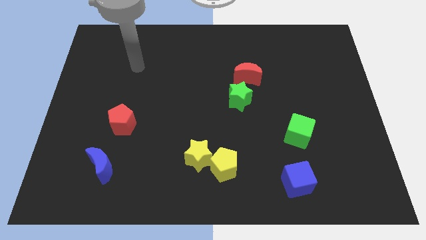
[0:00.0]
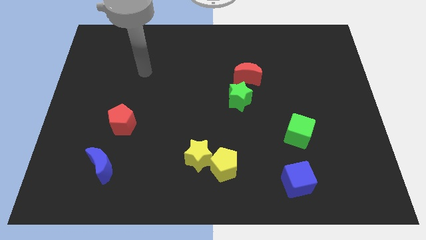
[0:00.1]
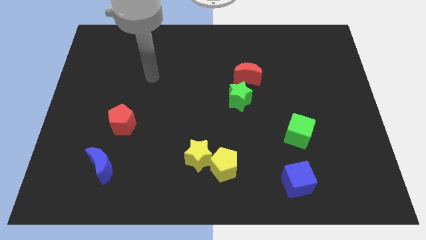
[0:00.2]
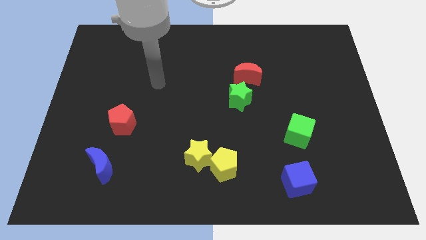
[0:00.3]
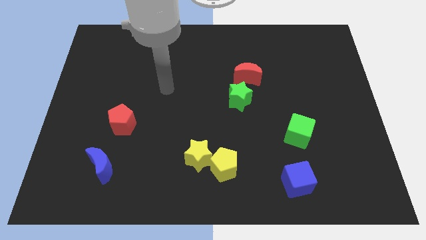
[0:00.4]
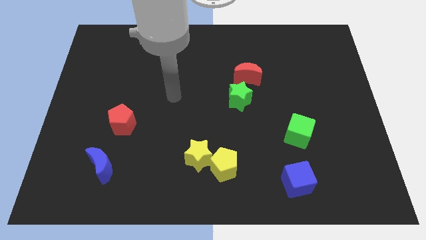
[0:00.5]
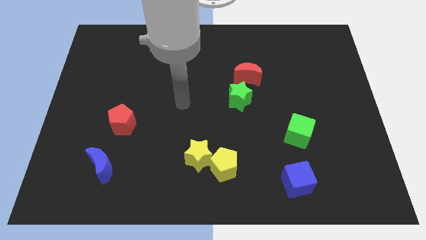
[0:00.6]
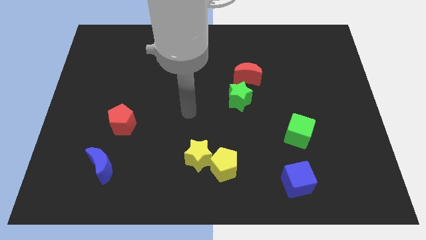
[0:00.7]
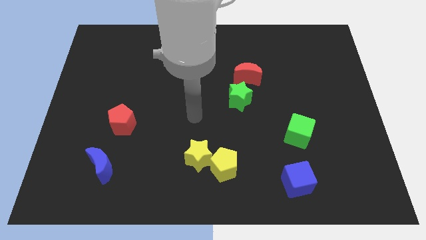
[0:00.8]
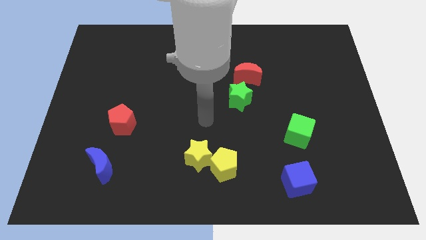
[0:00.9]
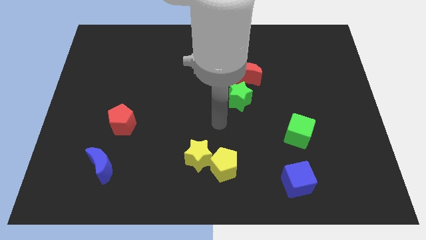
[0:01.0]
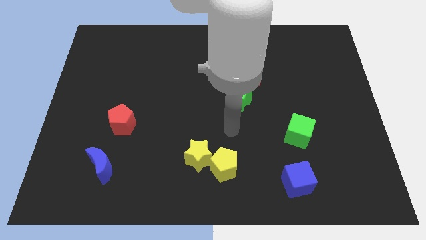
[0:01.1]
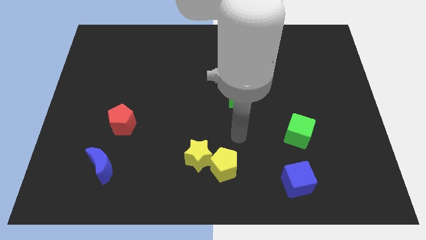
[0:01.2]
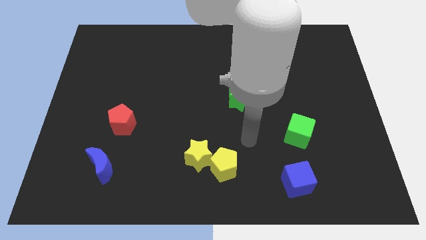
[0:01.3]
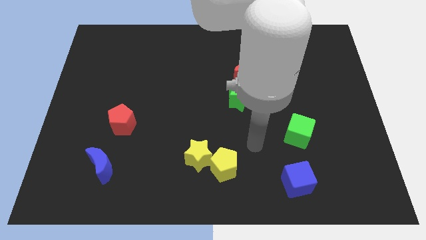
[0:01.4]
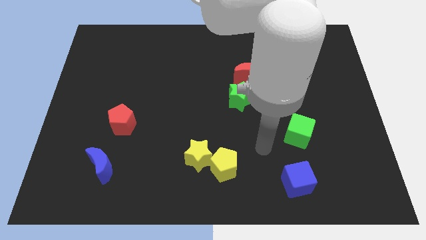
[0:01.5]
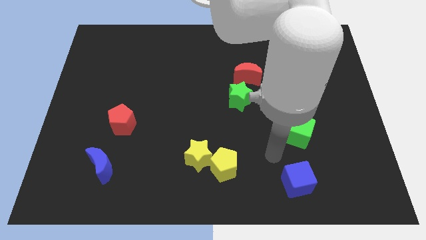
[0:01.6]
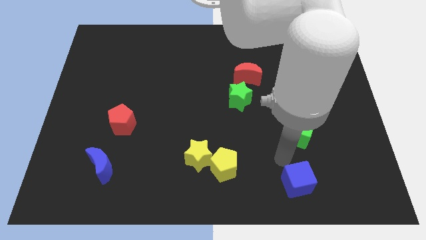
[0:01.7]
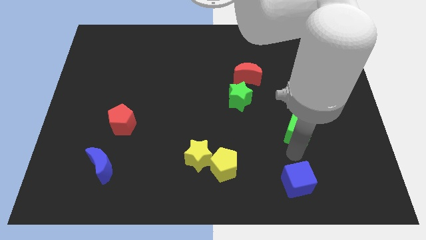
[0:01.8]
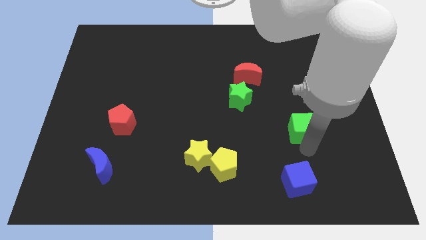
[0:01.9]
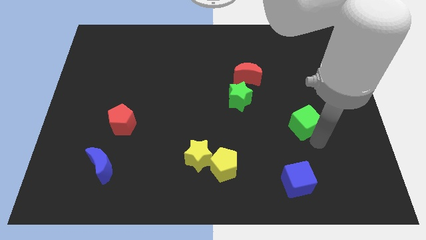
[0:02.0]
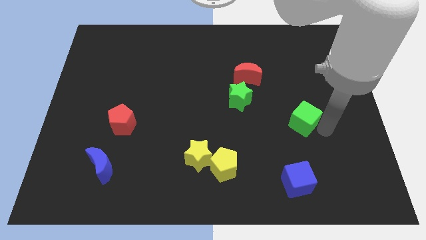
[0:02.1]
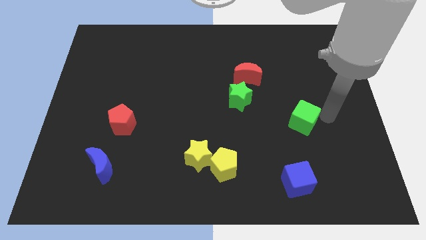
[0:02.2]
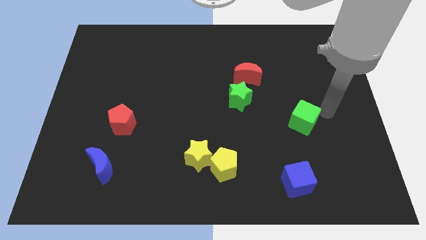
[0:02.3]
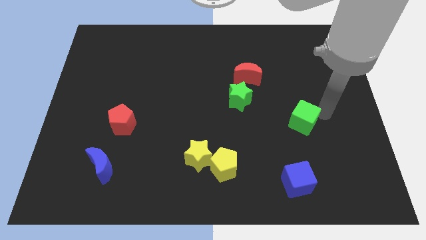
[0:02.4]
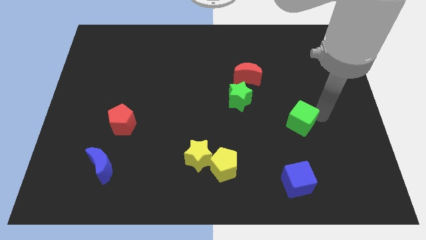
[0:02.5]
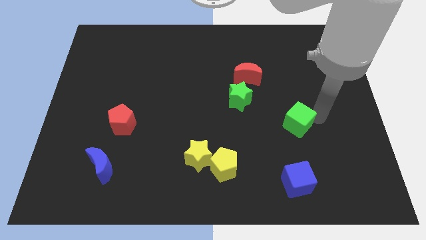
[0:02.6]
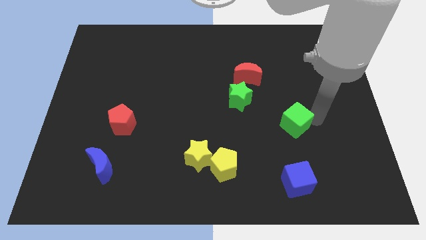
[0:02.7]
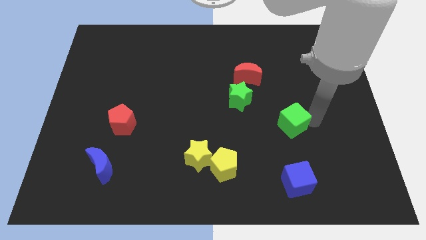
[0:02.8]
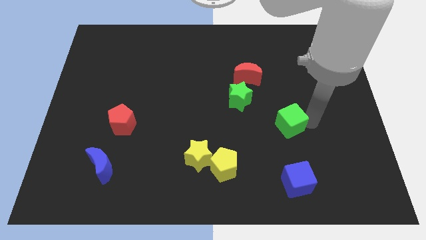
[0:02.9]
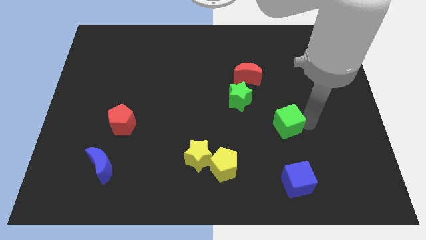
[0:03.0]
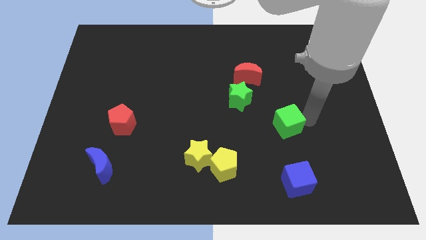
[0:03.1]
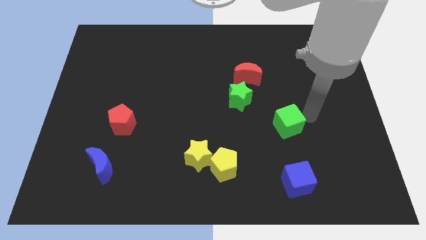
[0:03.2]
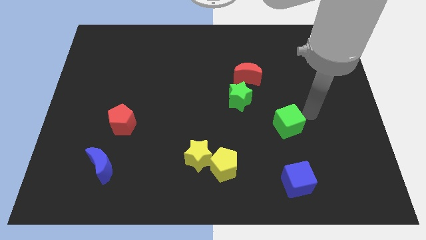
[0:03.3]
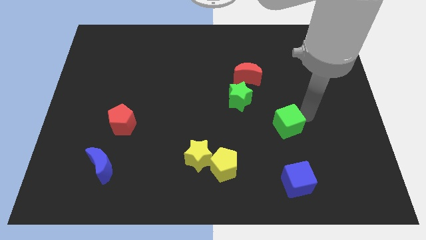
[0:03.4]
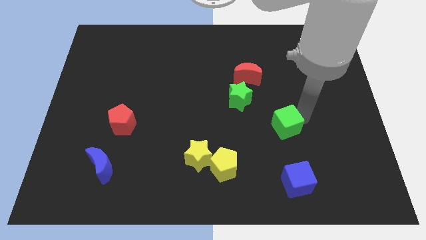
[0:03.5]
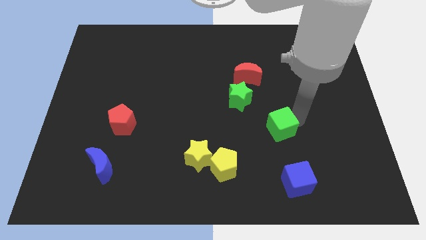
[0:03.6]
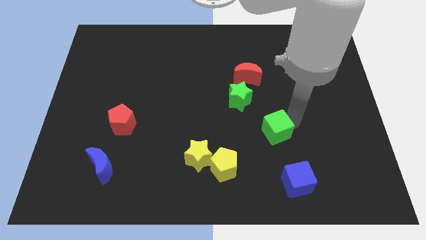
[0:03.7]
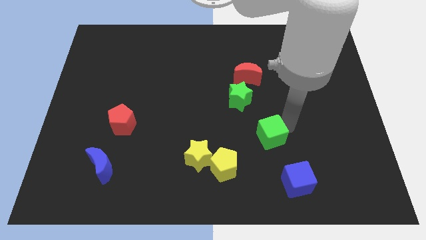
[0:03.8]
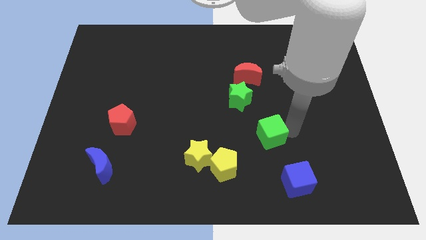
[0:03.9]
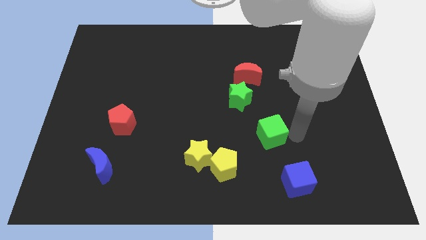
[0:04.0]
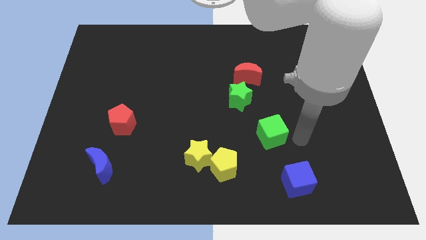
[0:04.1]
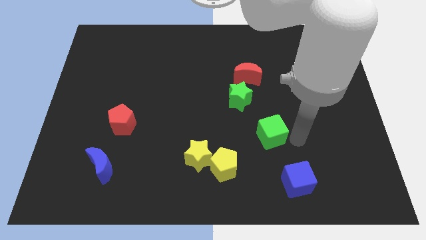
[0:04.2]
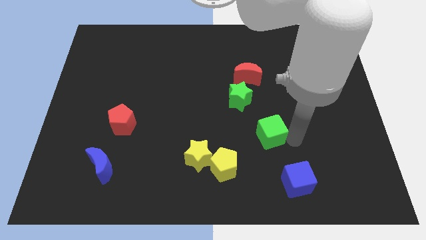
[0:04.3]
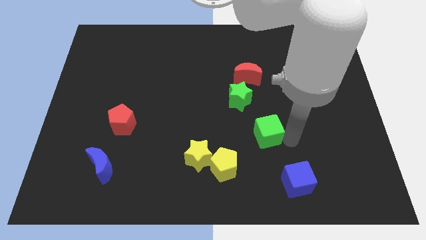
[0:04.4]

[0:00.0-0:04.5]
push the green cube left slightly

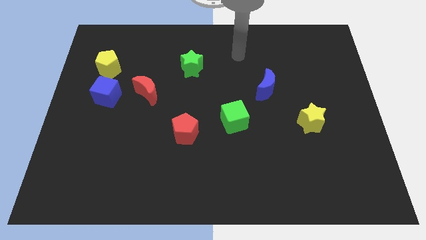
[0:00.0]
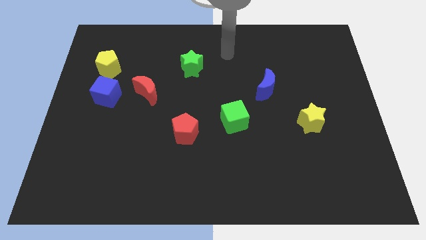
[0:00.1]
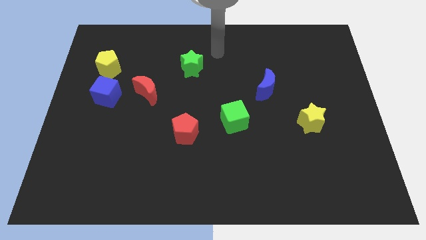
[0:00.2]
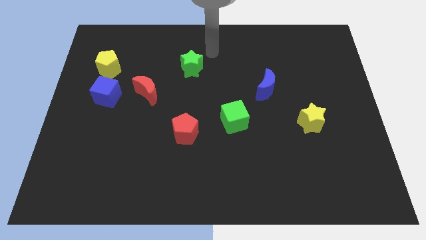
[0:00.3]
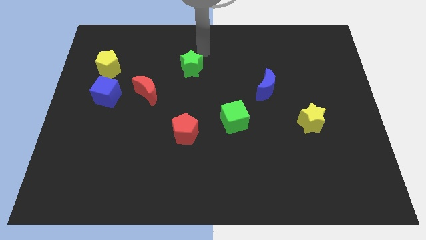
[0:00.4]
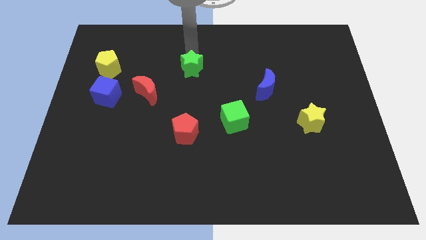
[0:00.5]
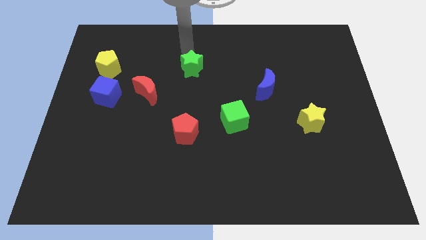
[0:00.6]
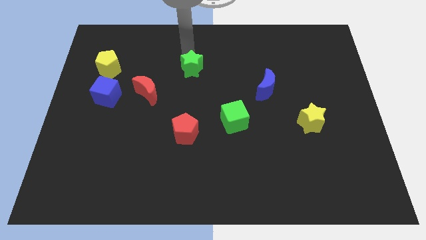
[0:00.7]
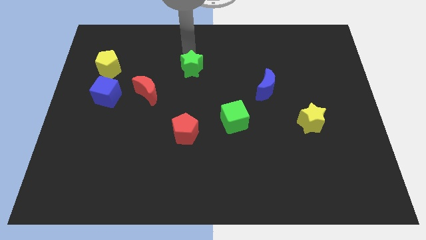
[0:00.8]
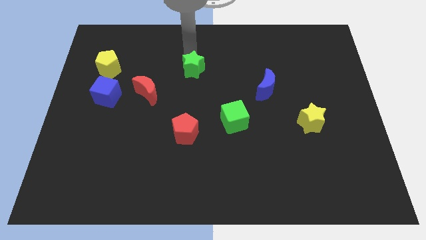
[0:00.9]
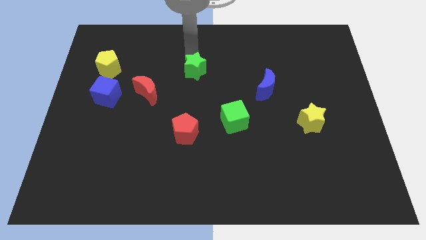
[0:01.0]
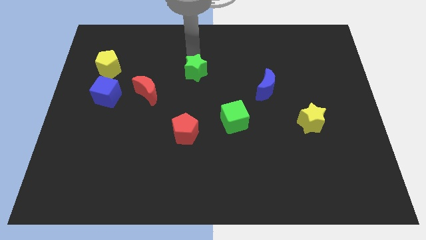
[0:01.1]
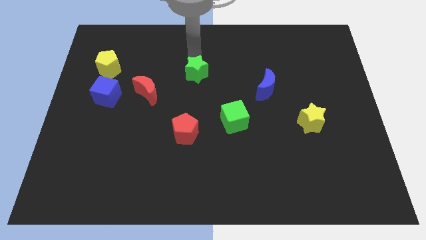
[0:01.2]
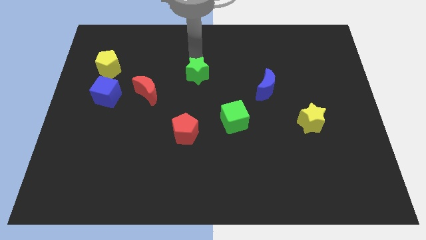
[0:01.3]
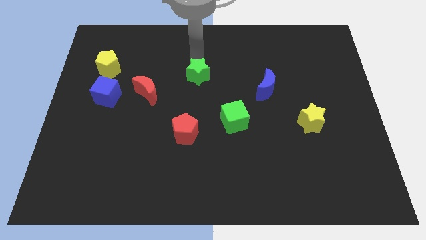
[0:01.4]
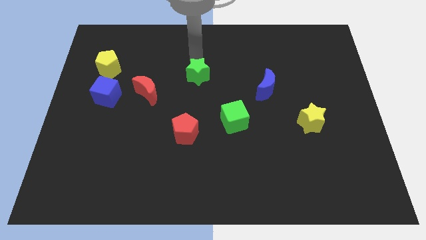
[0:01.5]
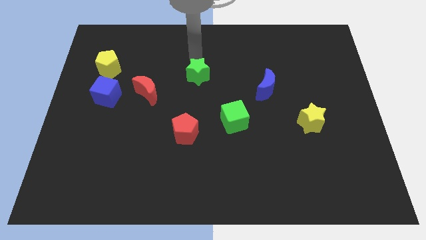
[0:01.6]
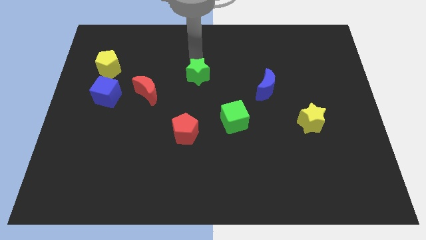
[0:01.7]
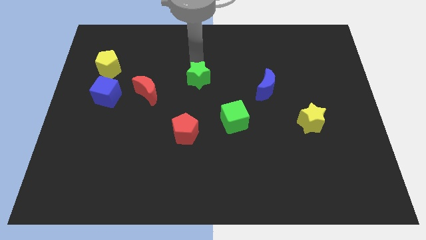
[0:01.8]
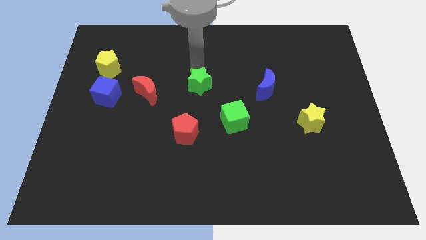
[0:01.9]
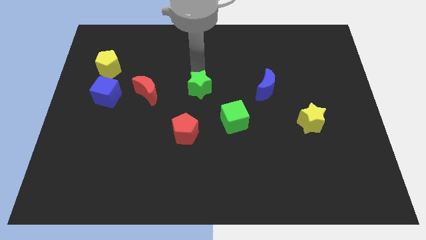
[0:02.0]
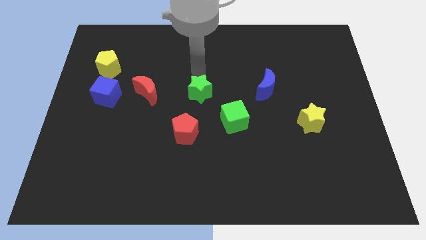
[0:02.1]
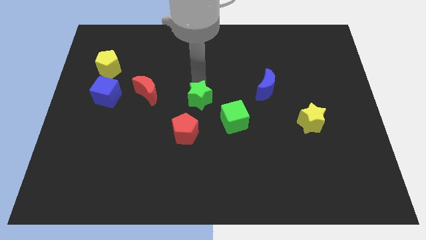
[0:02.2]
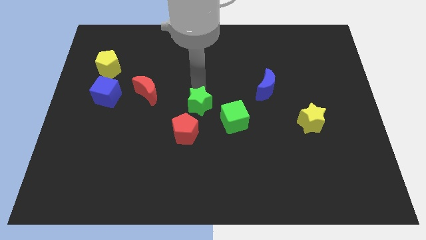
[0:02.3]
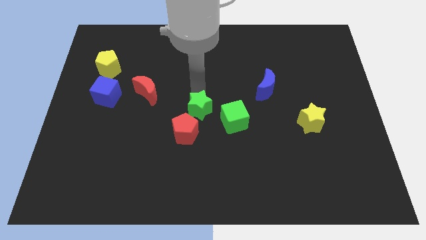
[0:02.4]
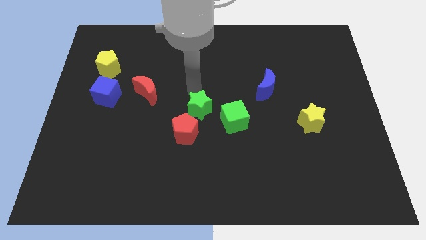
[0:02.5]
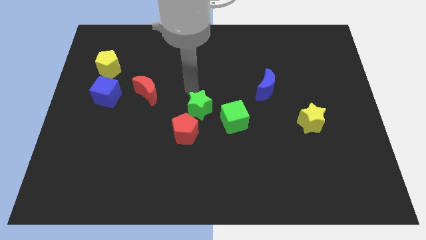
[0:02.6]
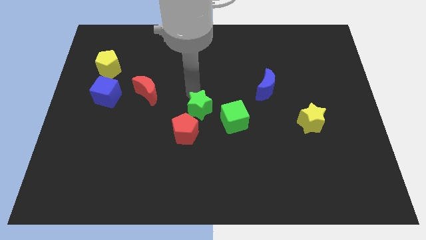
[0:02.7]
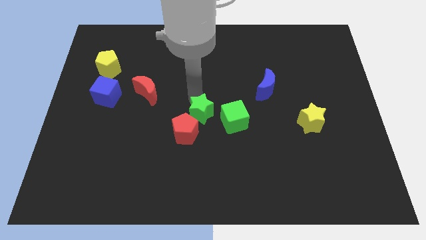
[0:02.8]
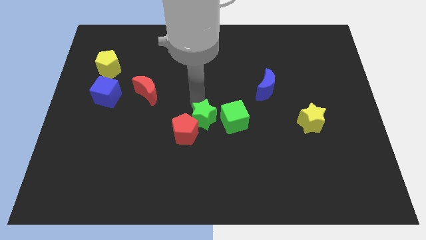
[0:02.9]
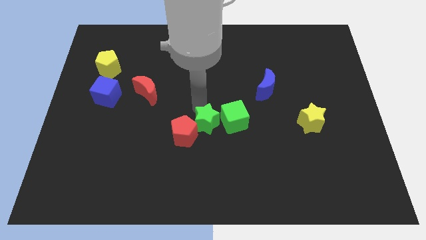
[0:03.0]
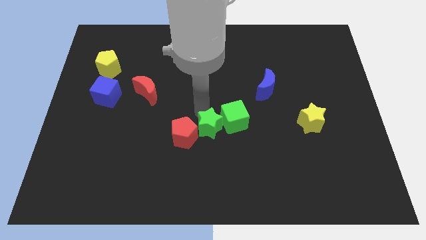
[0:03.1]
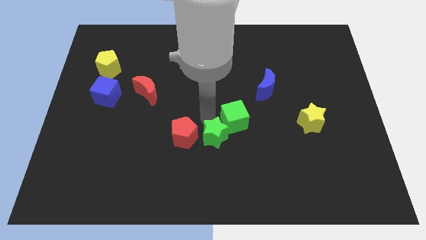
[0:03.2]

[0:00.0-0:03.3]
move the green star downwards

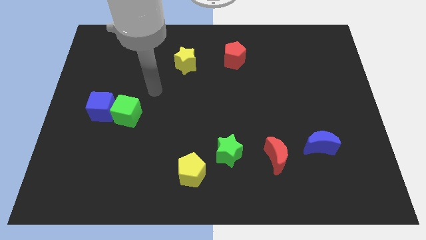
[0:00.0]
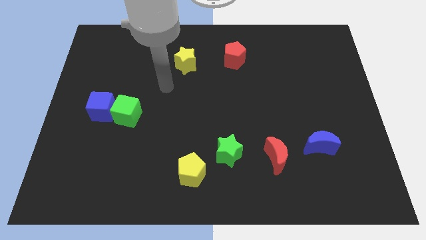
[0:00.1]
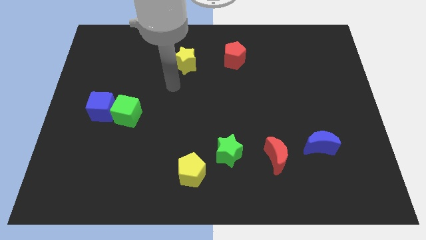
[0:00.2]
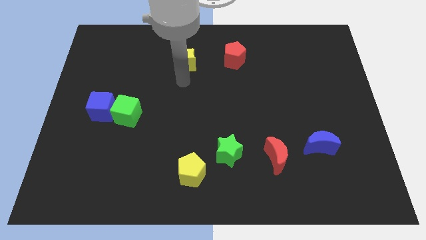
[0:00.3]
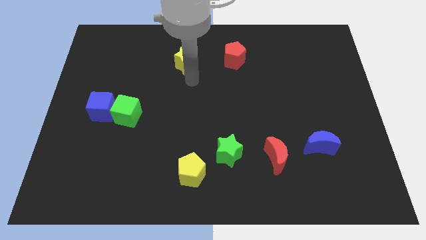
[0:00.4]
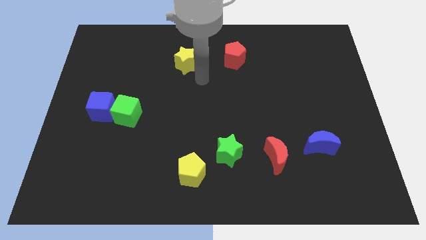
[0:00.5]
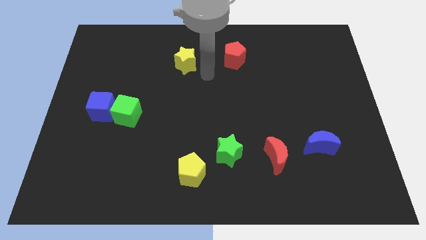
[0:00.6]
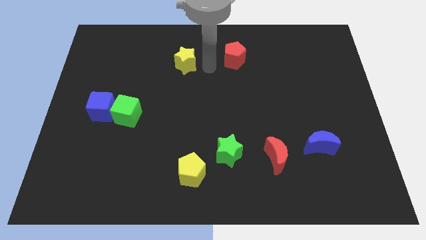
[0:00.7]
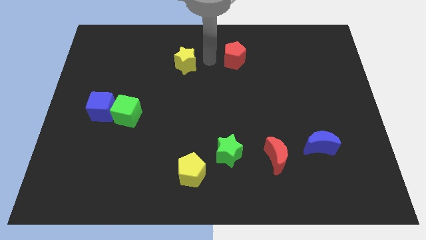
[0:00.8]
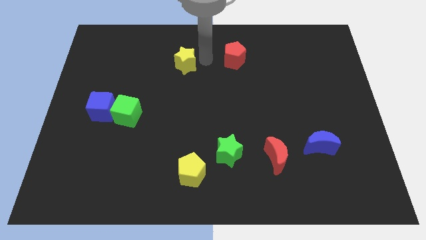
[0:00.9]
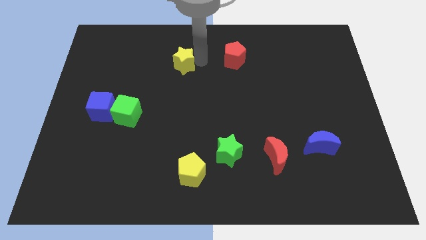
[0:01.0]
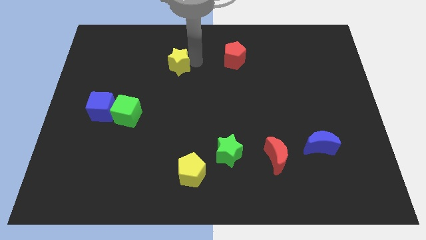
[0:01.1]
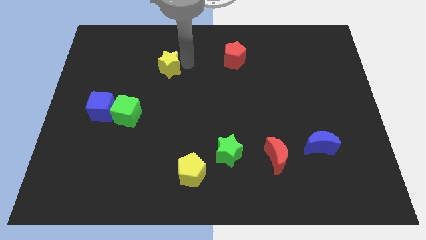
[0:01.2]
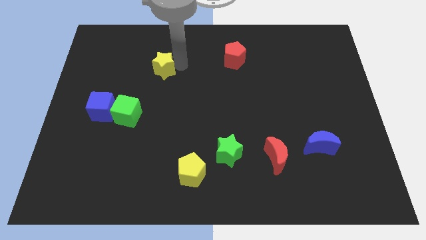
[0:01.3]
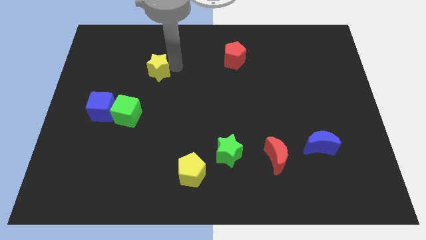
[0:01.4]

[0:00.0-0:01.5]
slide the yellow star to the left a bit
